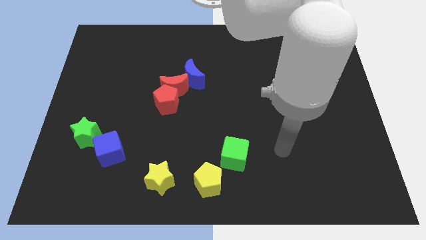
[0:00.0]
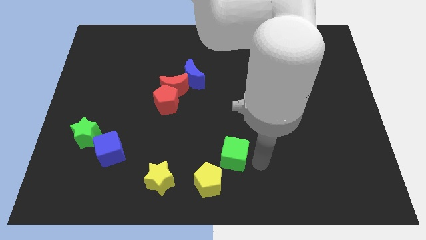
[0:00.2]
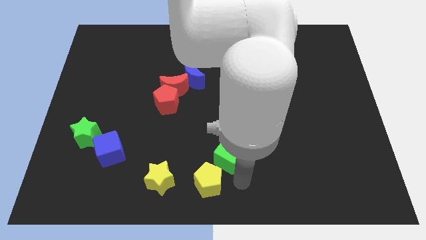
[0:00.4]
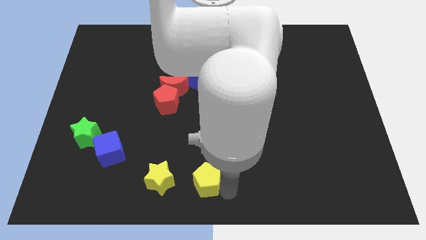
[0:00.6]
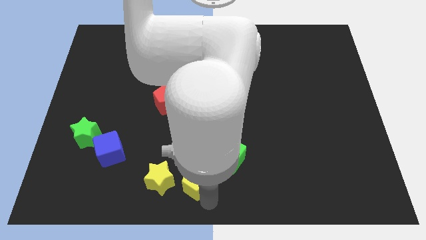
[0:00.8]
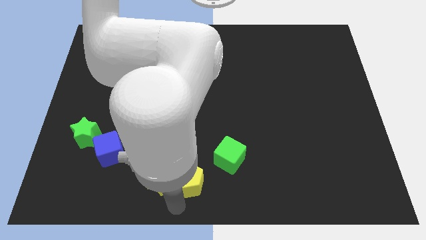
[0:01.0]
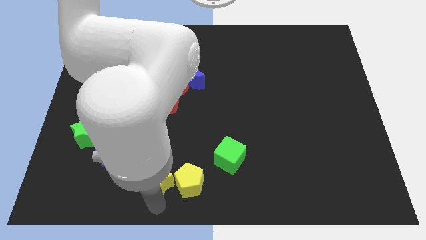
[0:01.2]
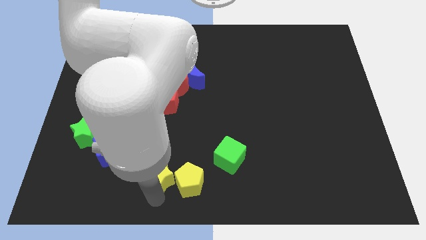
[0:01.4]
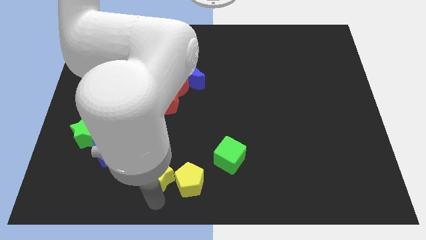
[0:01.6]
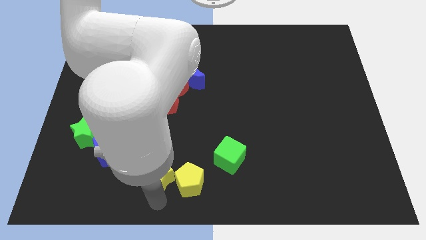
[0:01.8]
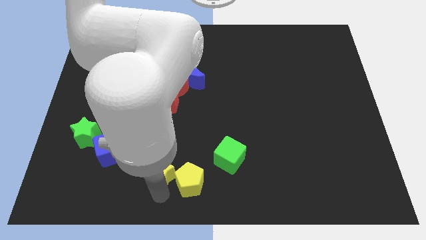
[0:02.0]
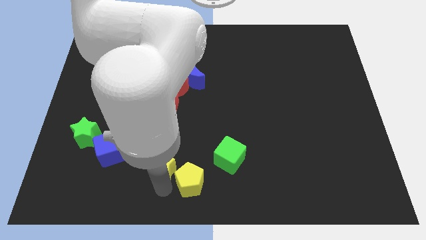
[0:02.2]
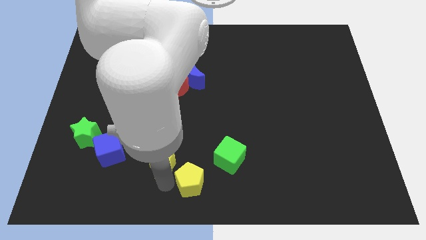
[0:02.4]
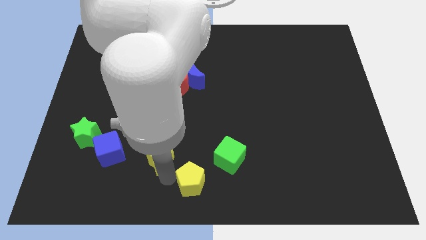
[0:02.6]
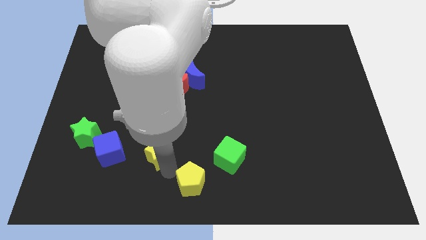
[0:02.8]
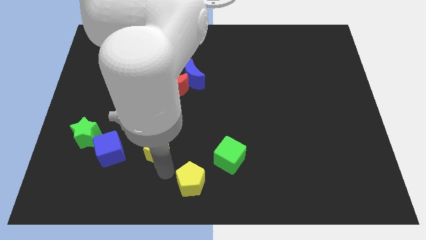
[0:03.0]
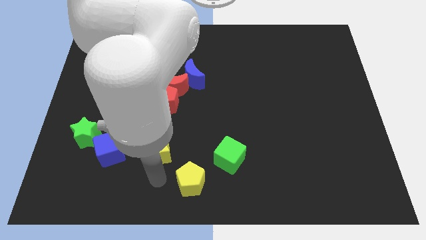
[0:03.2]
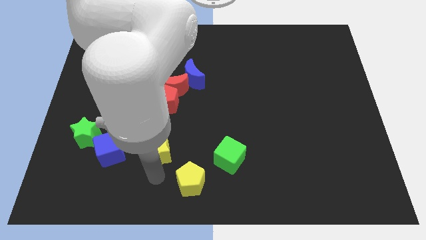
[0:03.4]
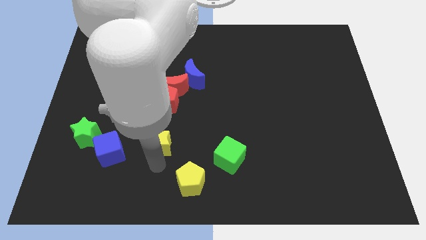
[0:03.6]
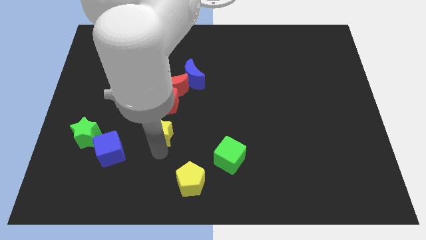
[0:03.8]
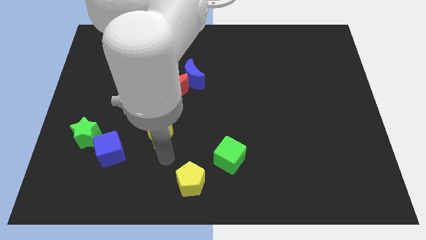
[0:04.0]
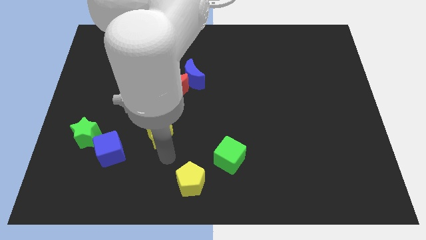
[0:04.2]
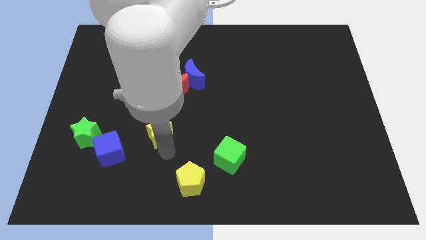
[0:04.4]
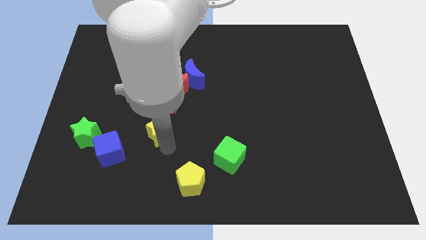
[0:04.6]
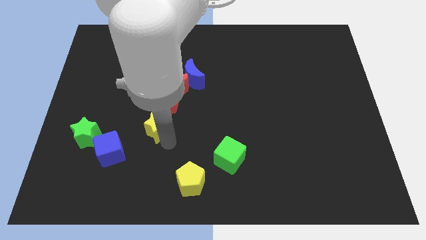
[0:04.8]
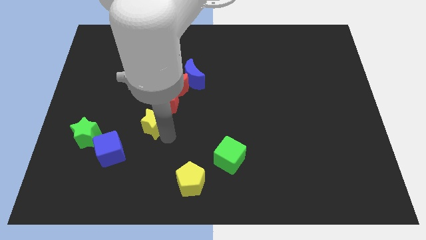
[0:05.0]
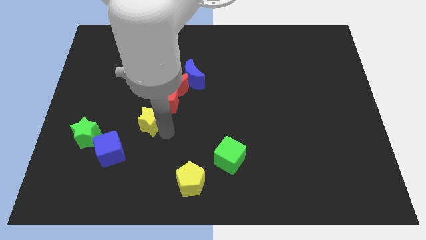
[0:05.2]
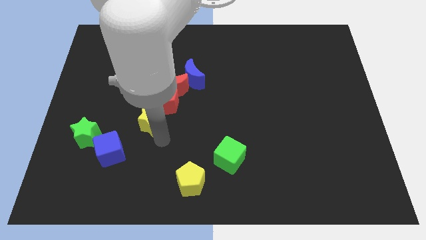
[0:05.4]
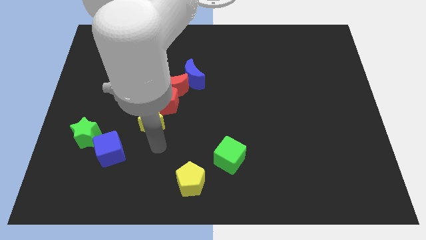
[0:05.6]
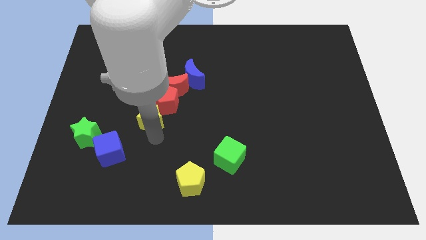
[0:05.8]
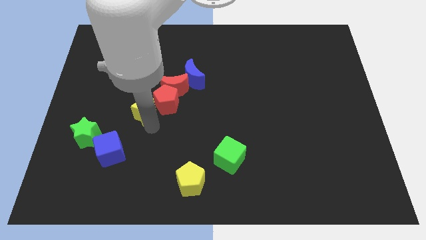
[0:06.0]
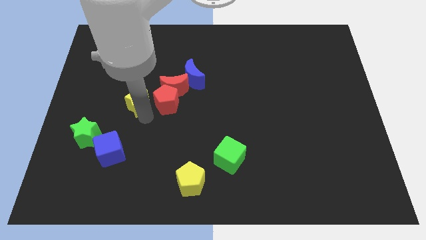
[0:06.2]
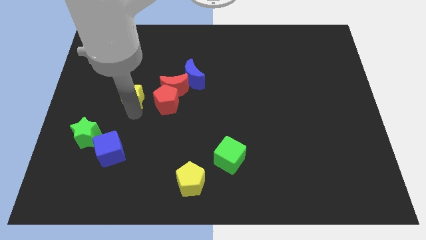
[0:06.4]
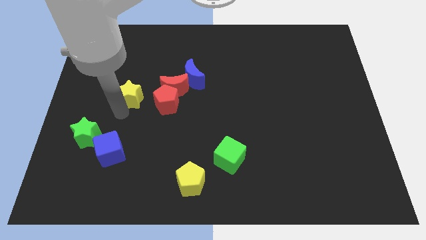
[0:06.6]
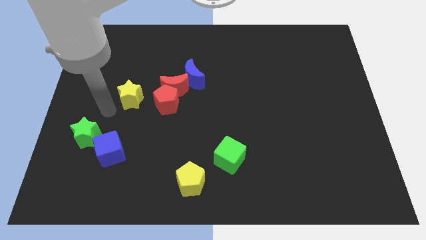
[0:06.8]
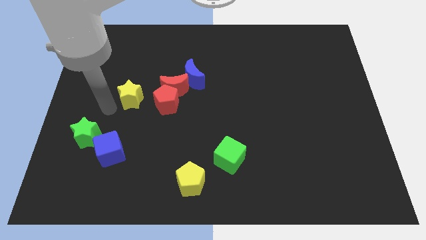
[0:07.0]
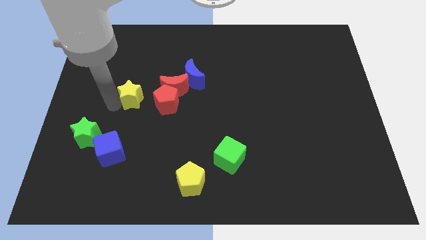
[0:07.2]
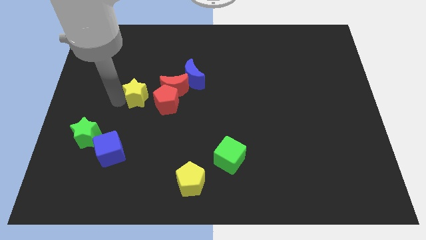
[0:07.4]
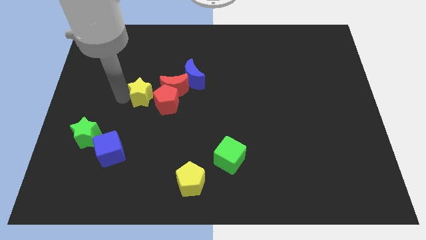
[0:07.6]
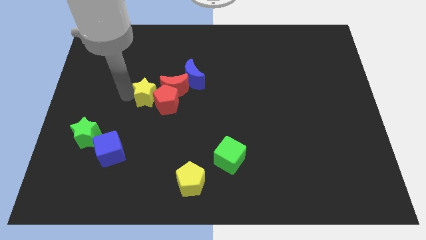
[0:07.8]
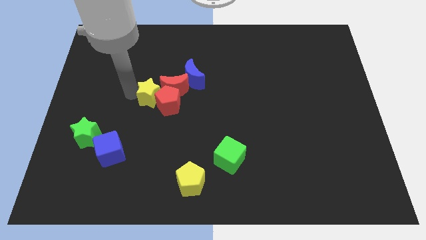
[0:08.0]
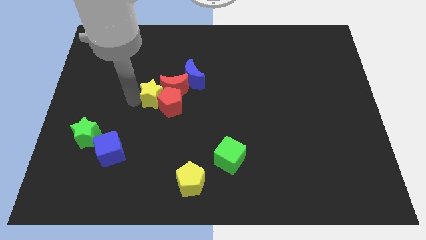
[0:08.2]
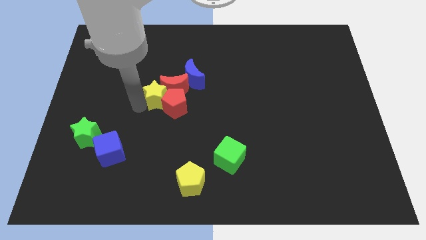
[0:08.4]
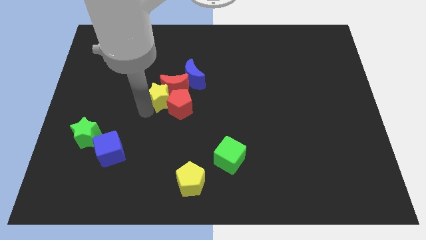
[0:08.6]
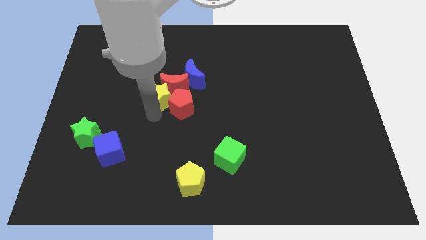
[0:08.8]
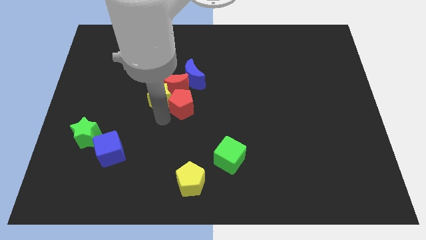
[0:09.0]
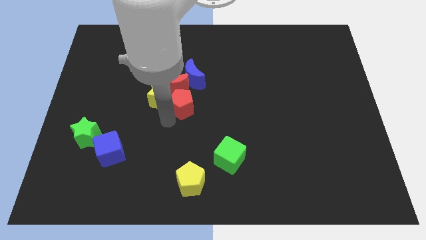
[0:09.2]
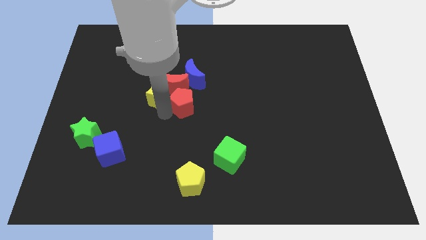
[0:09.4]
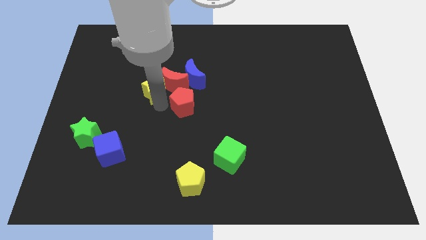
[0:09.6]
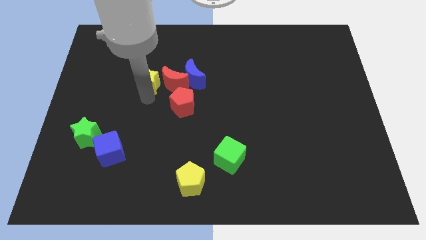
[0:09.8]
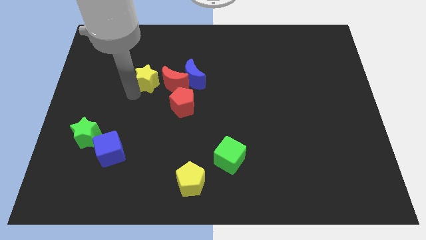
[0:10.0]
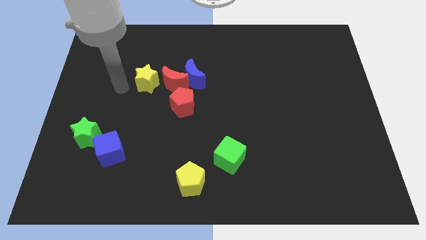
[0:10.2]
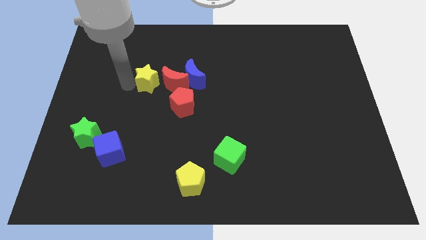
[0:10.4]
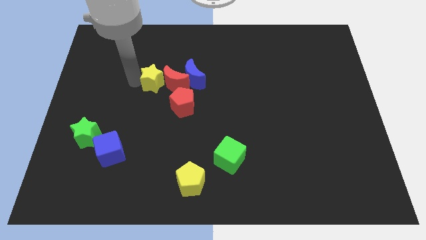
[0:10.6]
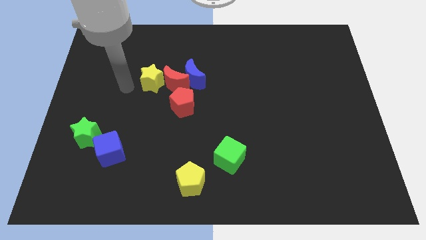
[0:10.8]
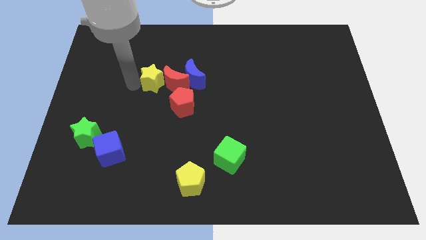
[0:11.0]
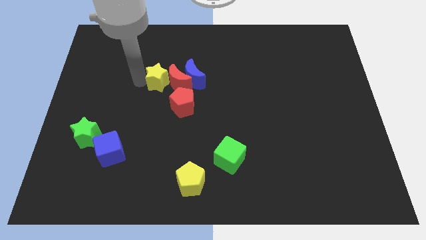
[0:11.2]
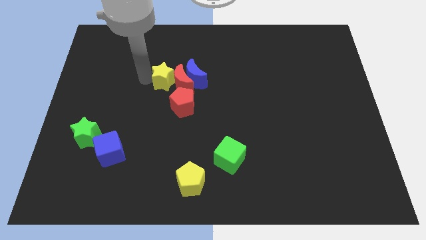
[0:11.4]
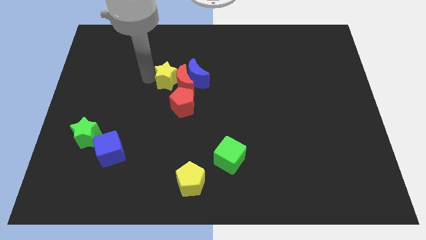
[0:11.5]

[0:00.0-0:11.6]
move the yellow star to the top side of the red pentagon
